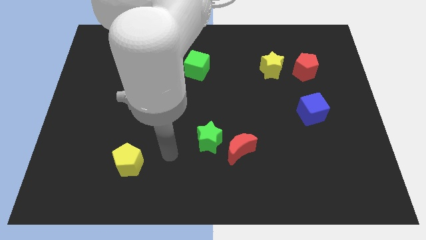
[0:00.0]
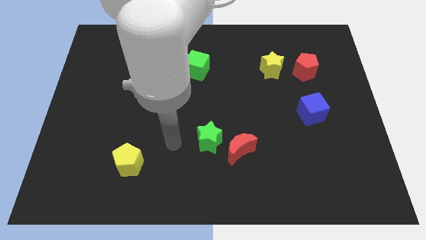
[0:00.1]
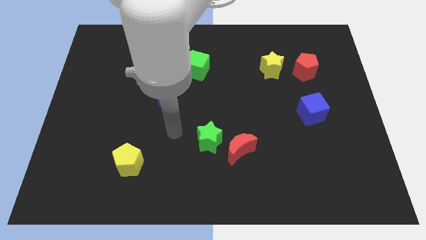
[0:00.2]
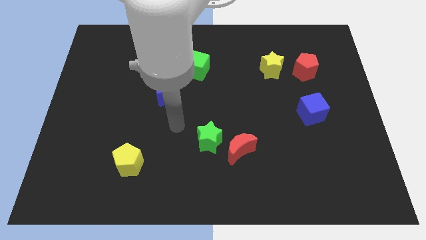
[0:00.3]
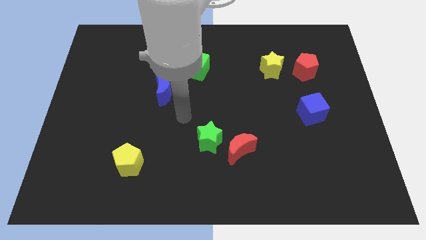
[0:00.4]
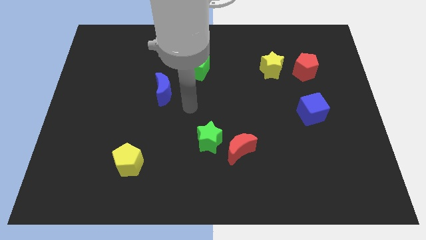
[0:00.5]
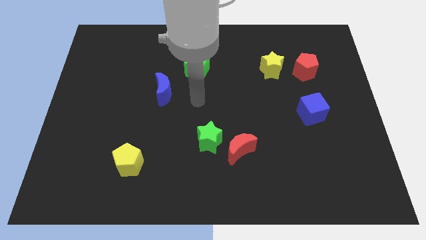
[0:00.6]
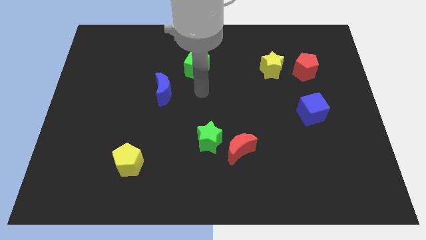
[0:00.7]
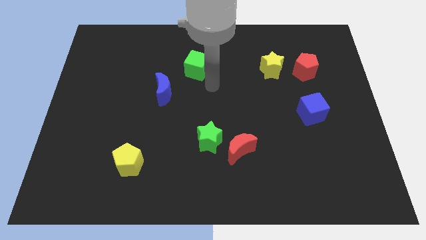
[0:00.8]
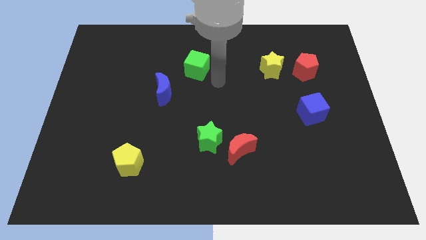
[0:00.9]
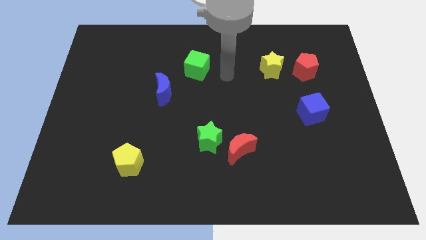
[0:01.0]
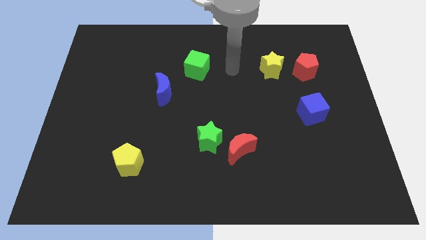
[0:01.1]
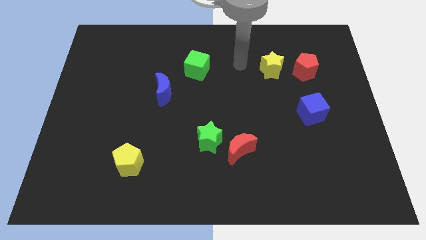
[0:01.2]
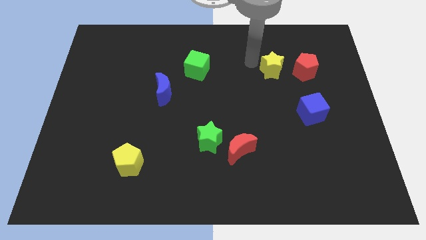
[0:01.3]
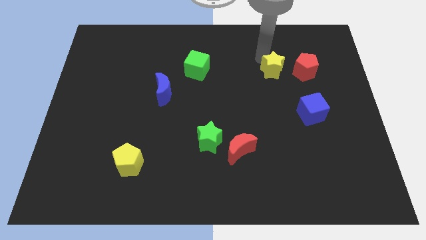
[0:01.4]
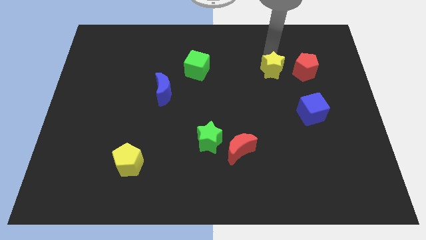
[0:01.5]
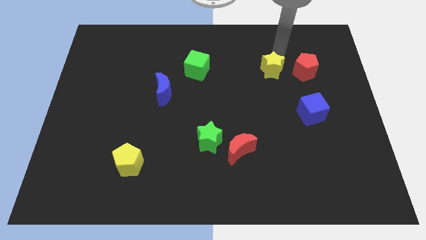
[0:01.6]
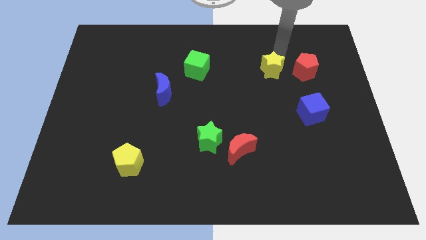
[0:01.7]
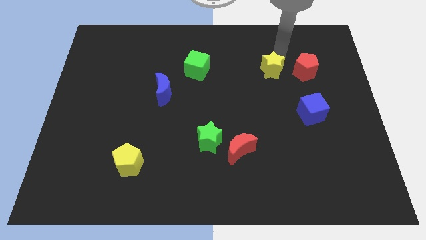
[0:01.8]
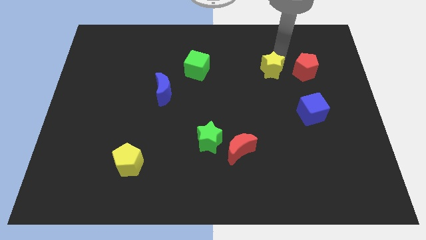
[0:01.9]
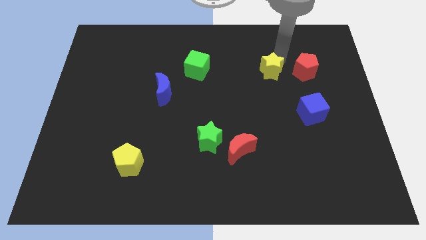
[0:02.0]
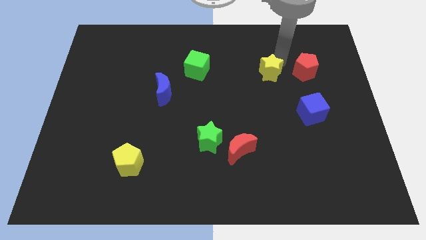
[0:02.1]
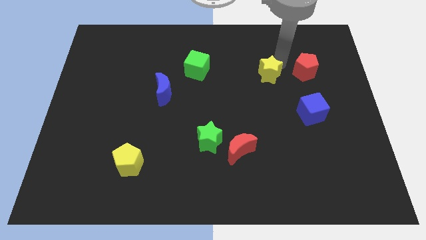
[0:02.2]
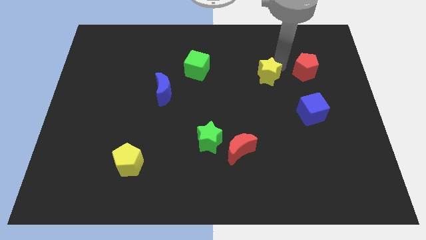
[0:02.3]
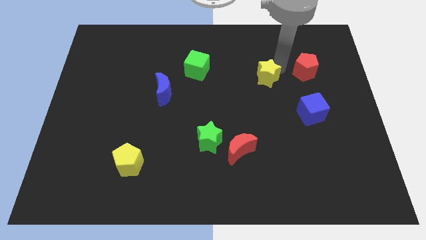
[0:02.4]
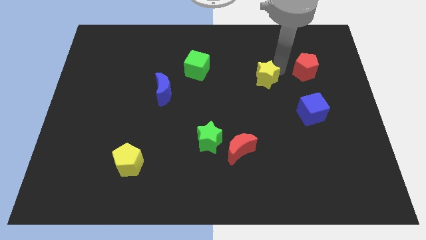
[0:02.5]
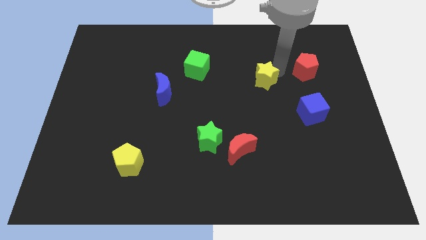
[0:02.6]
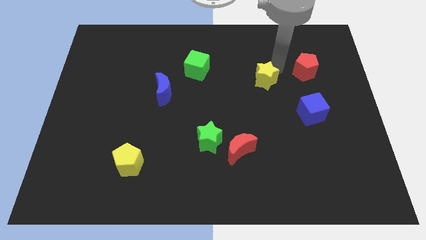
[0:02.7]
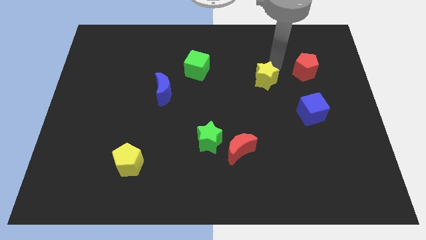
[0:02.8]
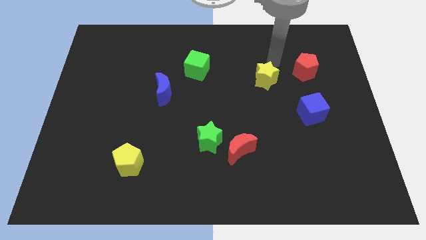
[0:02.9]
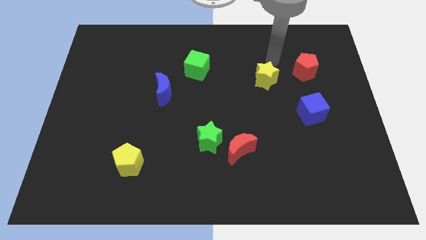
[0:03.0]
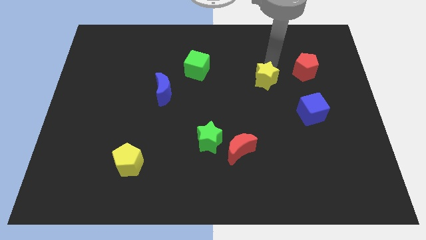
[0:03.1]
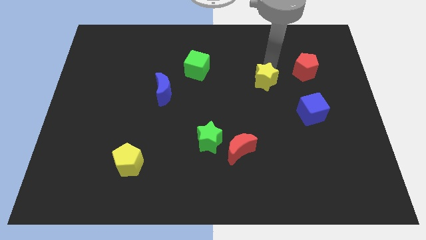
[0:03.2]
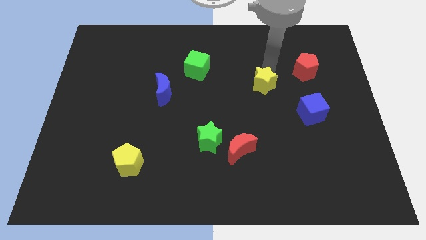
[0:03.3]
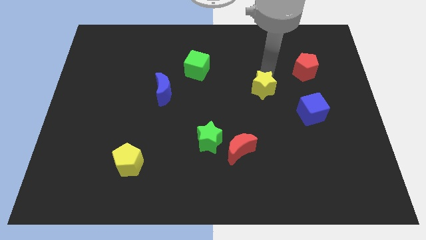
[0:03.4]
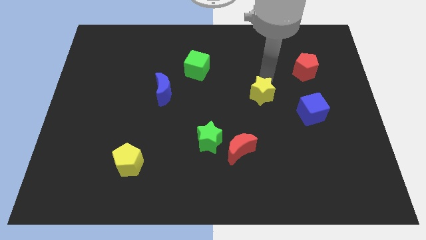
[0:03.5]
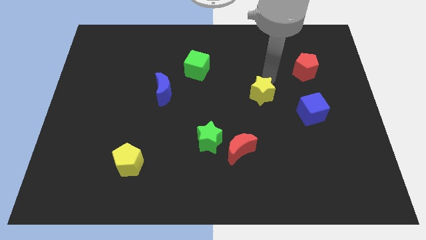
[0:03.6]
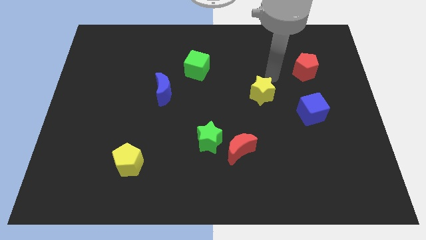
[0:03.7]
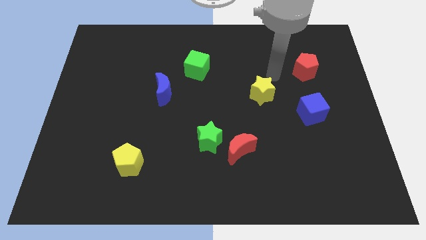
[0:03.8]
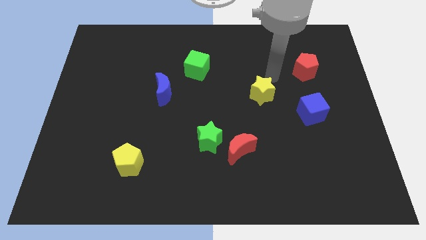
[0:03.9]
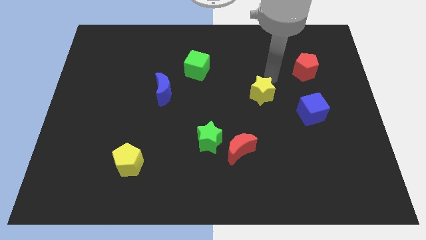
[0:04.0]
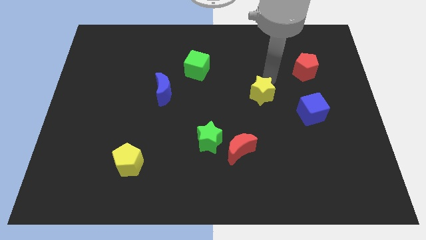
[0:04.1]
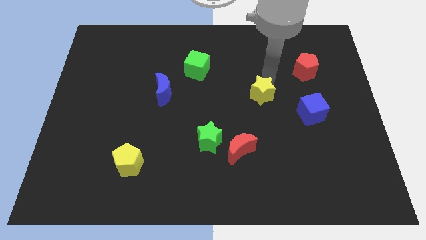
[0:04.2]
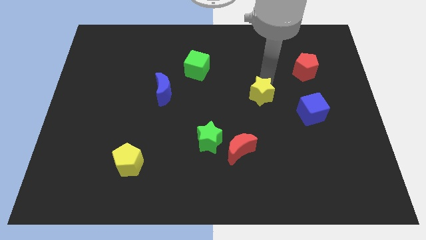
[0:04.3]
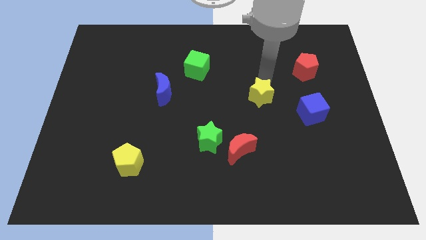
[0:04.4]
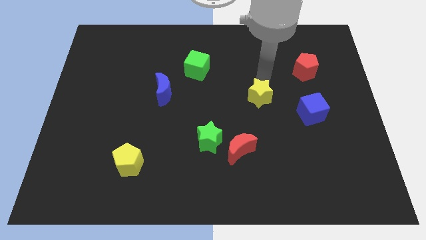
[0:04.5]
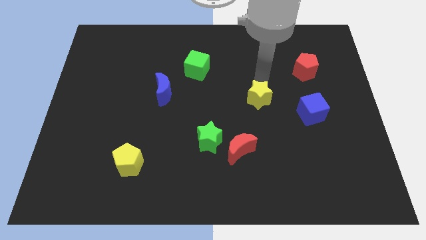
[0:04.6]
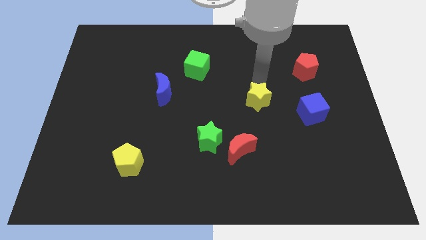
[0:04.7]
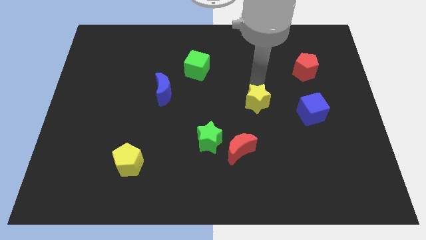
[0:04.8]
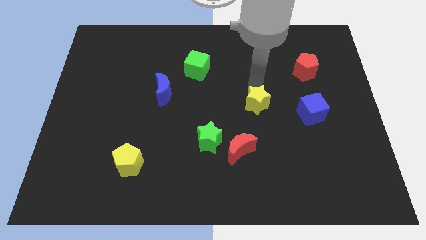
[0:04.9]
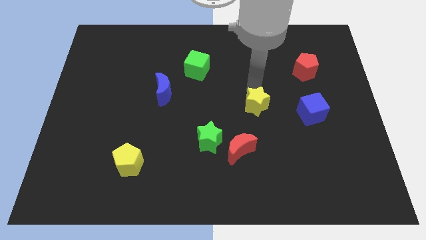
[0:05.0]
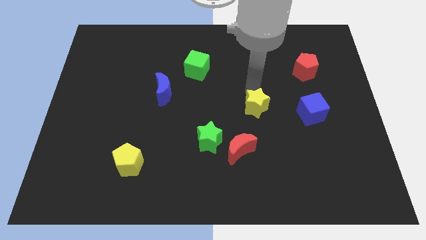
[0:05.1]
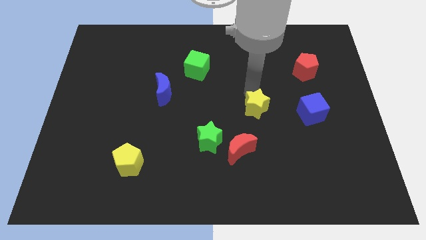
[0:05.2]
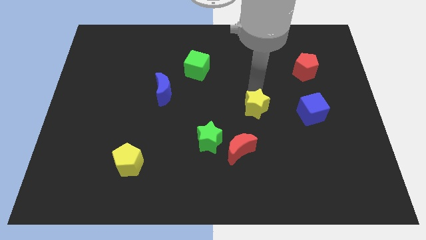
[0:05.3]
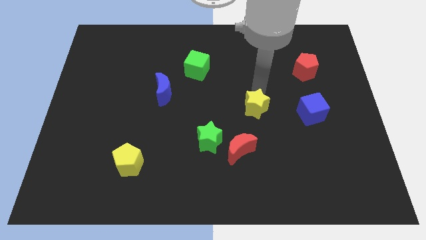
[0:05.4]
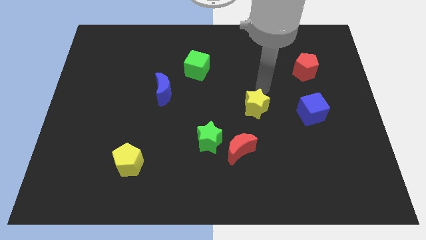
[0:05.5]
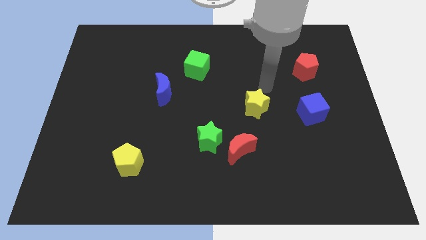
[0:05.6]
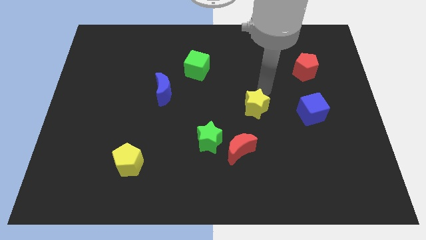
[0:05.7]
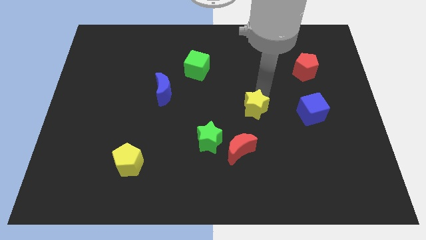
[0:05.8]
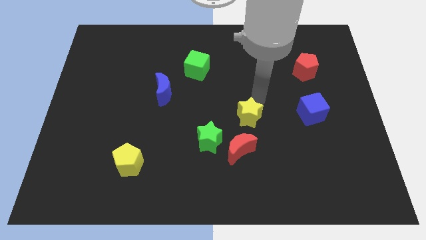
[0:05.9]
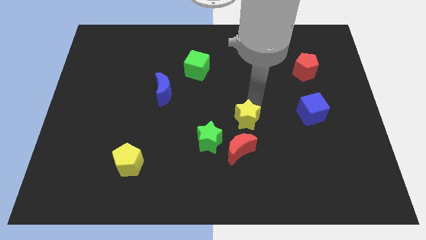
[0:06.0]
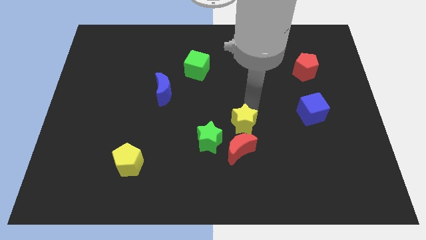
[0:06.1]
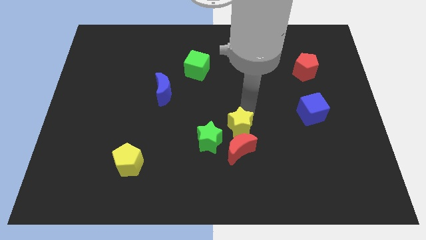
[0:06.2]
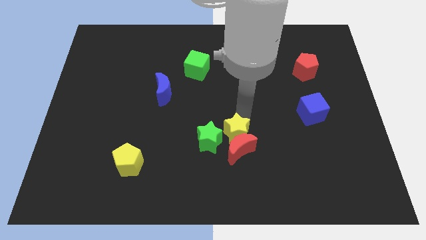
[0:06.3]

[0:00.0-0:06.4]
move the yellow star close to the red moon

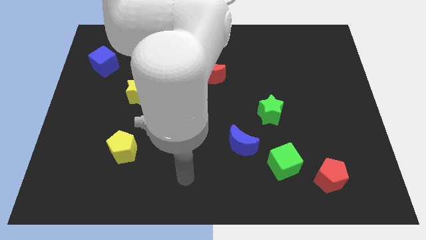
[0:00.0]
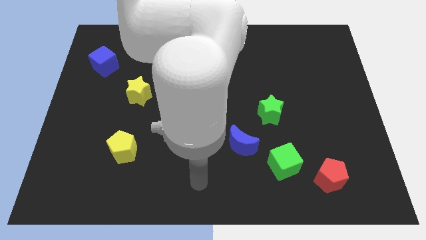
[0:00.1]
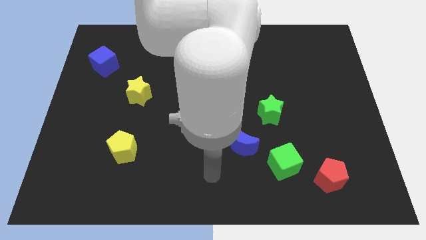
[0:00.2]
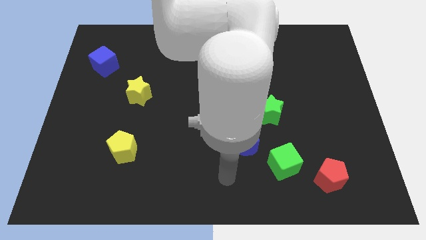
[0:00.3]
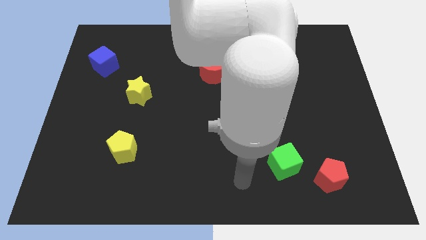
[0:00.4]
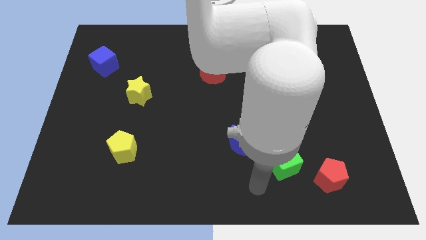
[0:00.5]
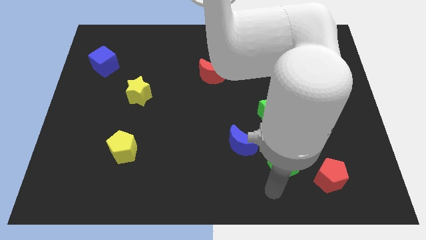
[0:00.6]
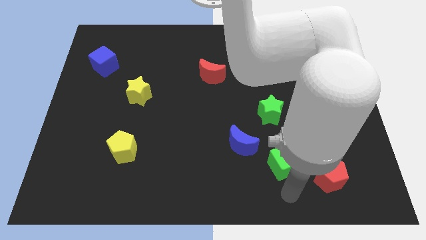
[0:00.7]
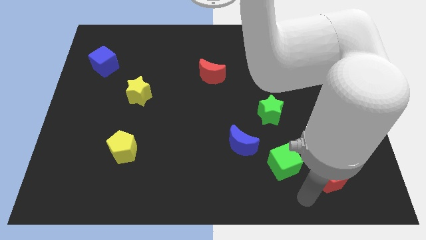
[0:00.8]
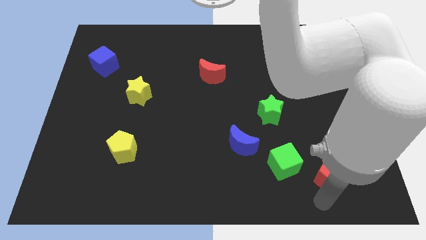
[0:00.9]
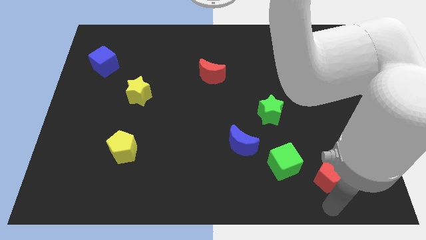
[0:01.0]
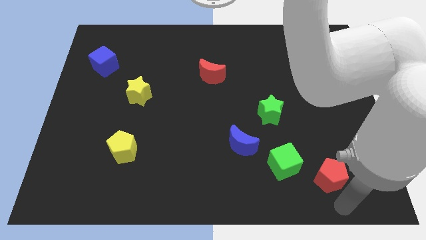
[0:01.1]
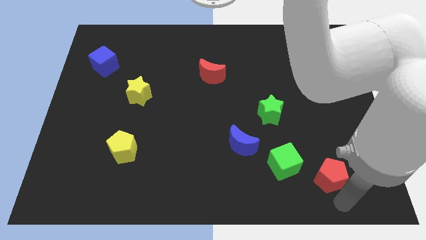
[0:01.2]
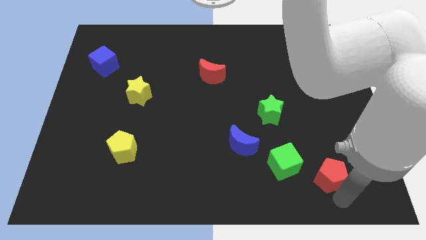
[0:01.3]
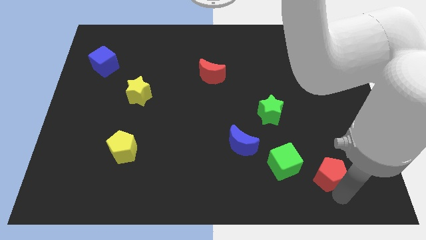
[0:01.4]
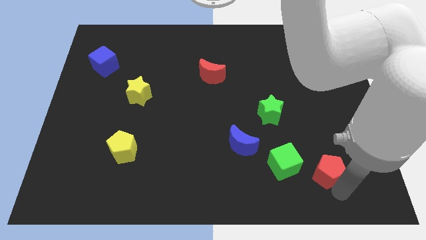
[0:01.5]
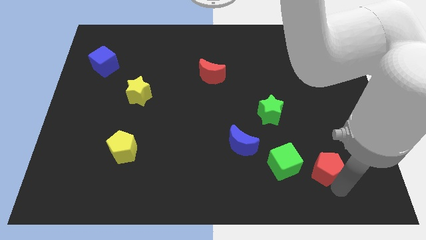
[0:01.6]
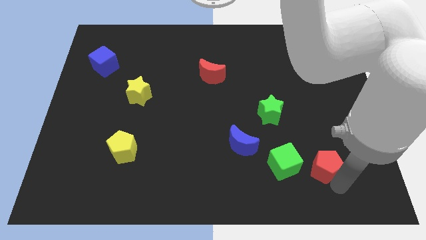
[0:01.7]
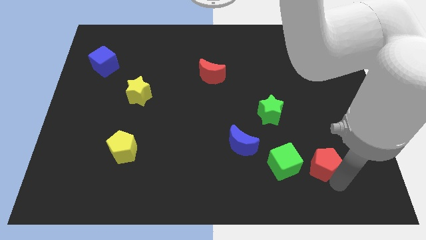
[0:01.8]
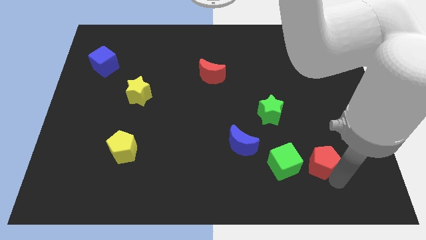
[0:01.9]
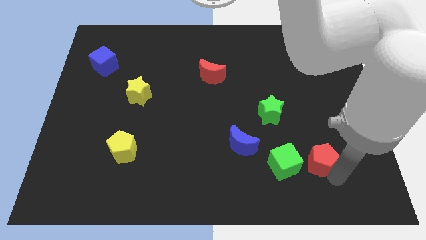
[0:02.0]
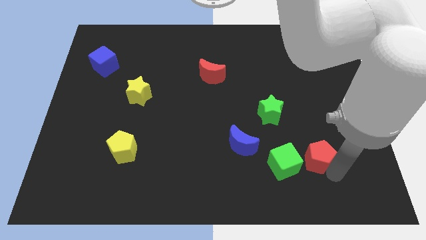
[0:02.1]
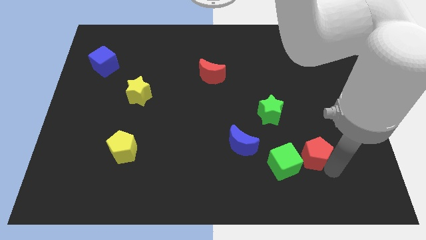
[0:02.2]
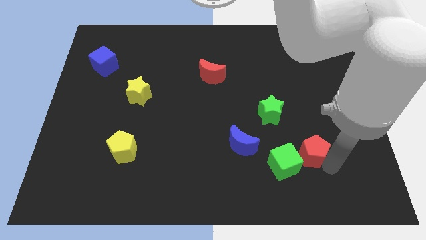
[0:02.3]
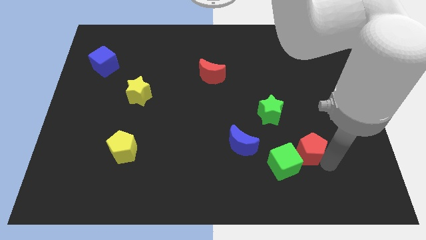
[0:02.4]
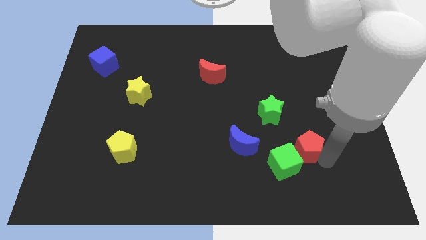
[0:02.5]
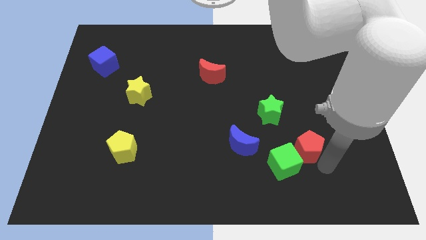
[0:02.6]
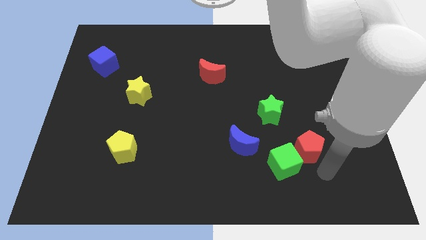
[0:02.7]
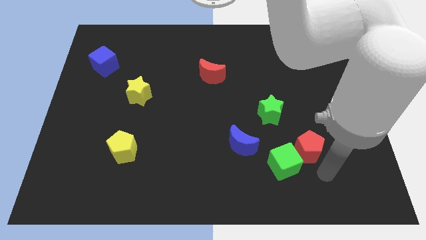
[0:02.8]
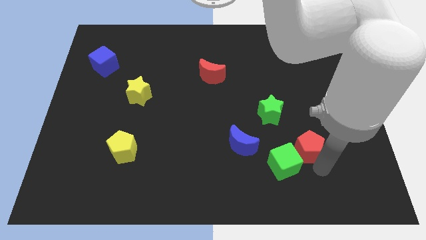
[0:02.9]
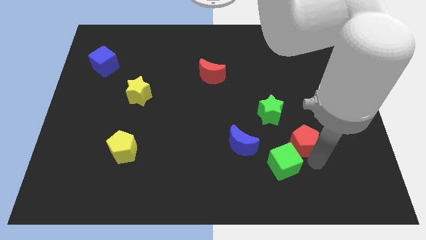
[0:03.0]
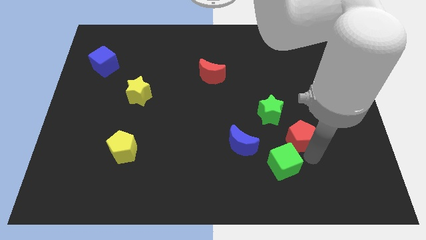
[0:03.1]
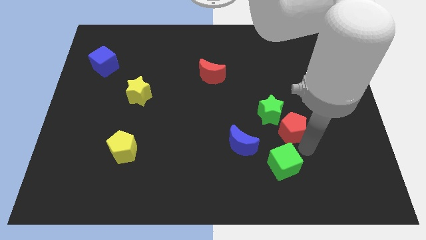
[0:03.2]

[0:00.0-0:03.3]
slide the red pentagon next to the green star
